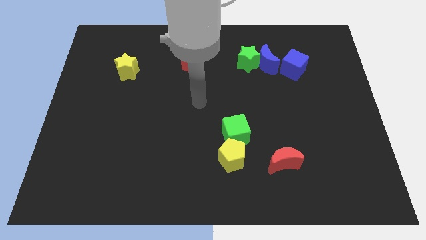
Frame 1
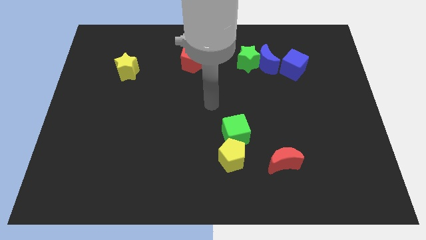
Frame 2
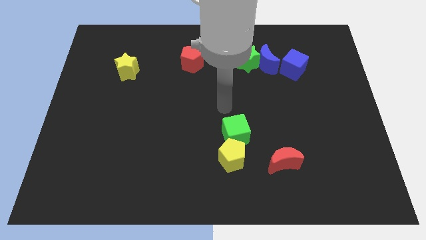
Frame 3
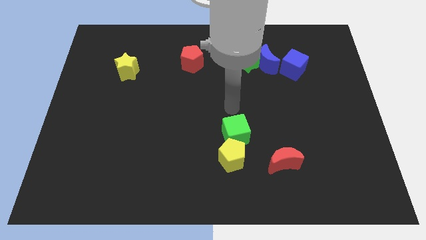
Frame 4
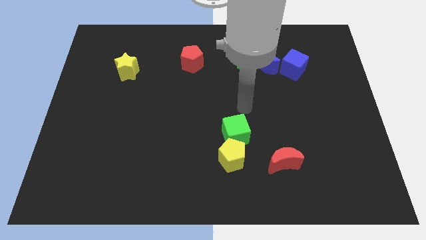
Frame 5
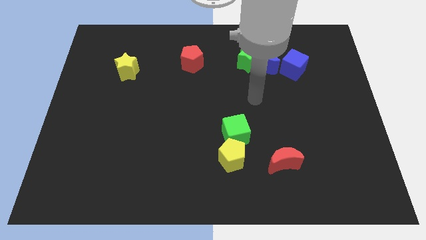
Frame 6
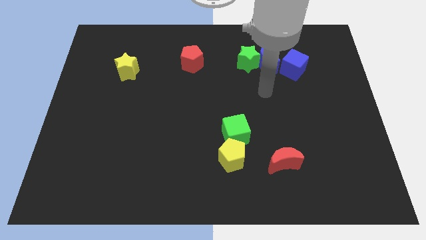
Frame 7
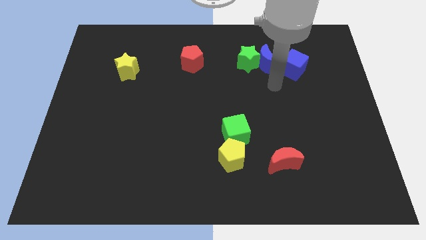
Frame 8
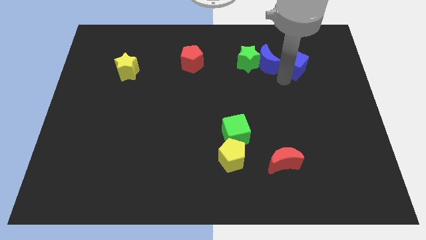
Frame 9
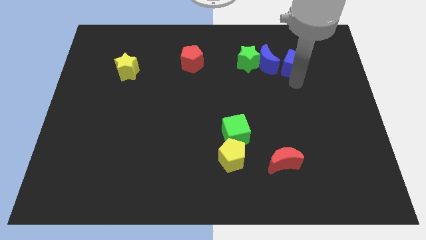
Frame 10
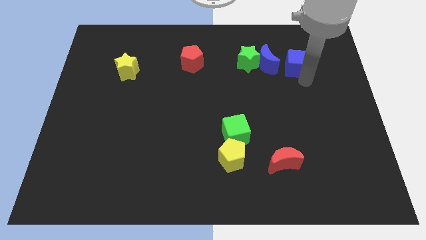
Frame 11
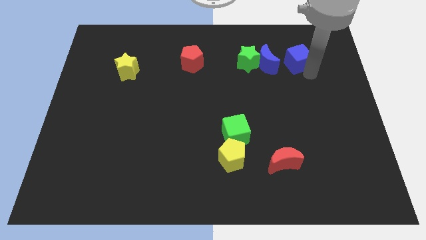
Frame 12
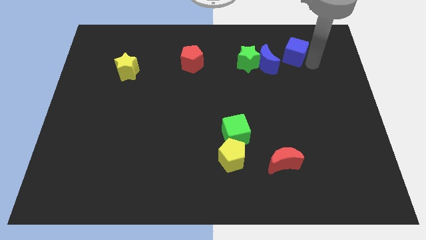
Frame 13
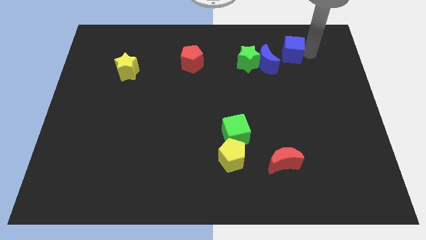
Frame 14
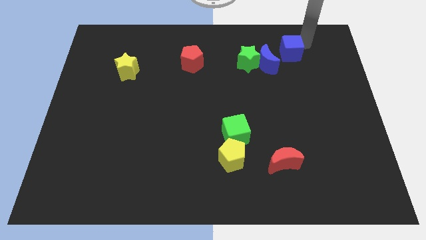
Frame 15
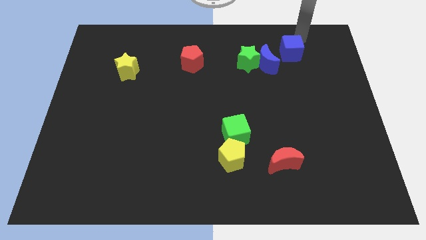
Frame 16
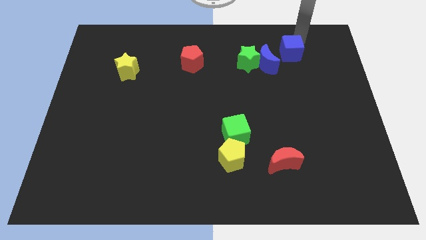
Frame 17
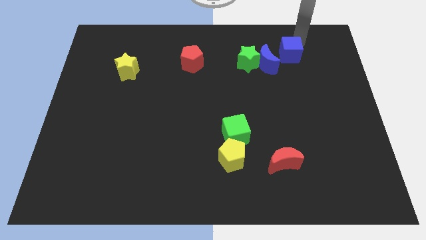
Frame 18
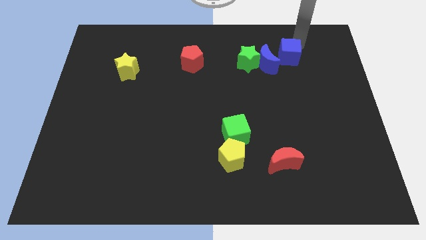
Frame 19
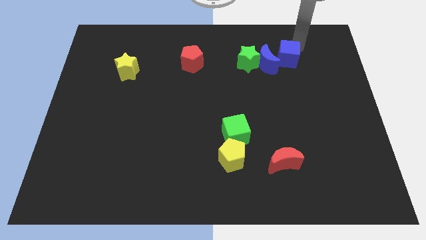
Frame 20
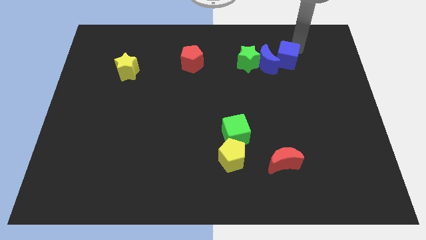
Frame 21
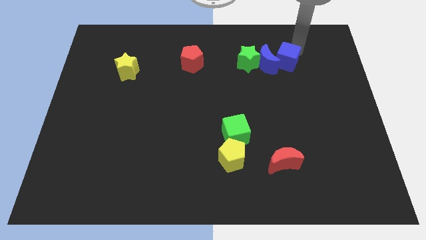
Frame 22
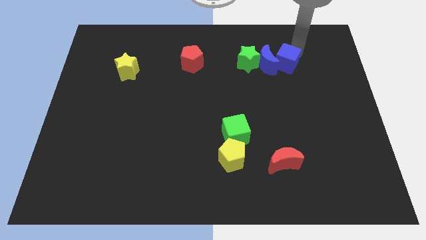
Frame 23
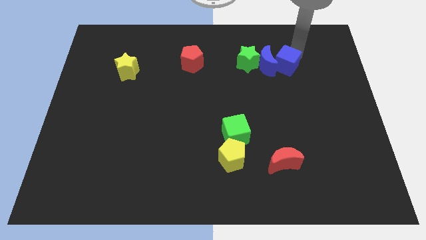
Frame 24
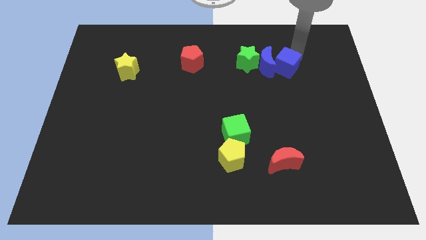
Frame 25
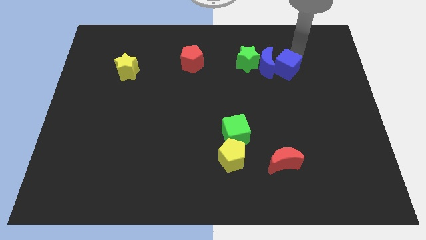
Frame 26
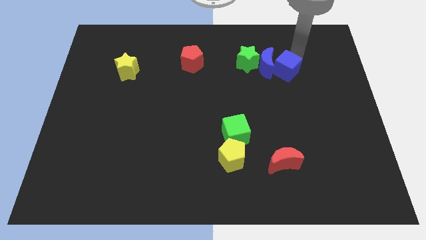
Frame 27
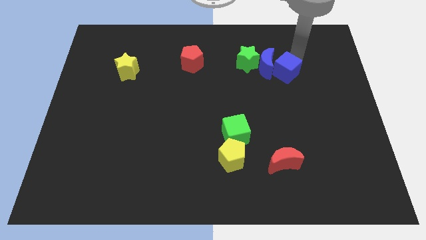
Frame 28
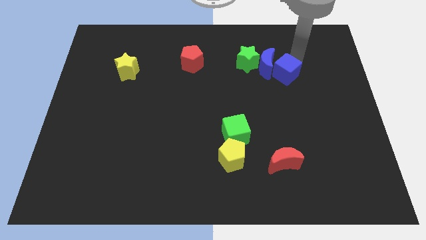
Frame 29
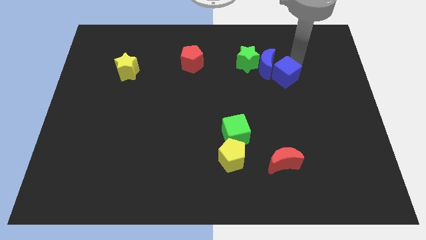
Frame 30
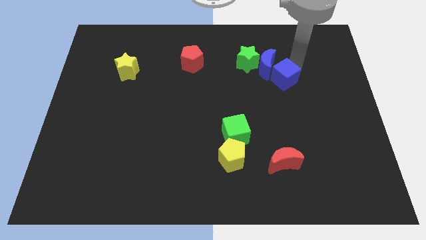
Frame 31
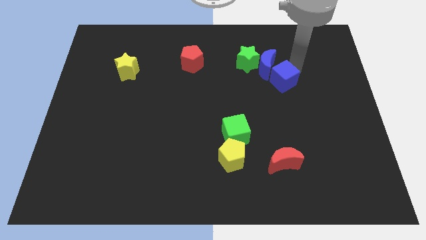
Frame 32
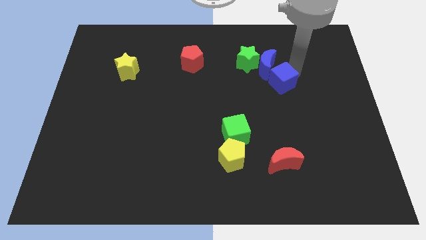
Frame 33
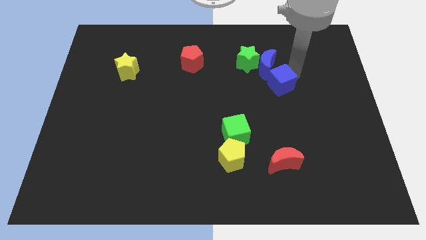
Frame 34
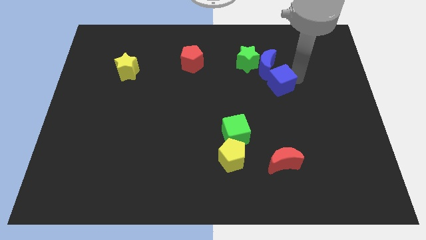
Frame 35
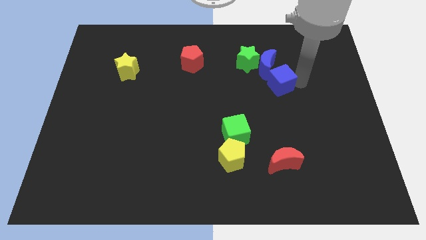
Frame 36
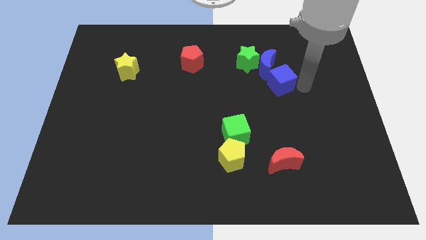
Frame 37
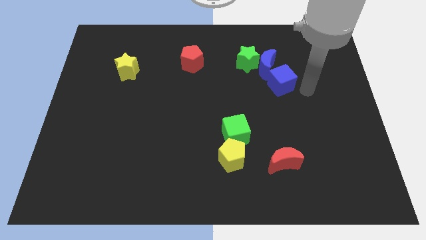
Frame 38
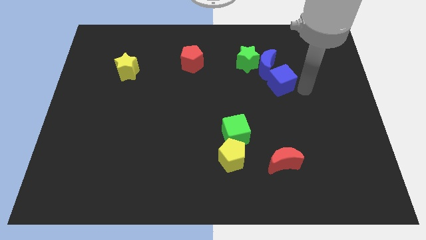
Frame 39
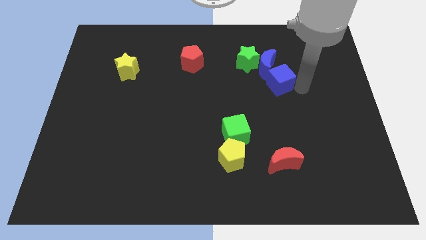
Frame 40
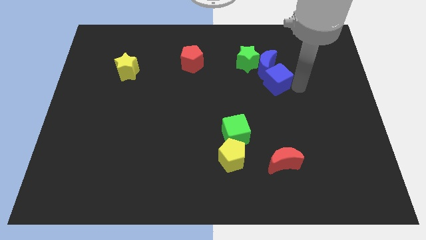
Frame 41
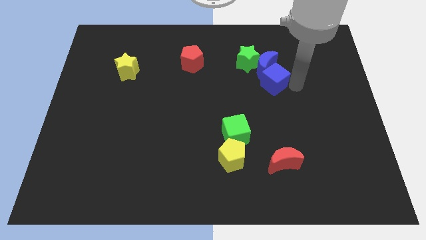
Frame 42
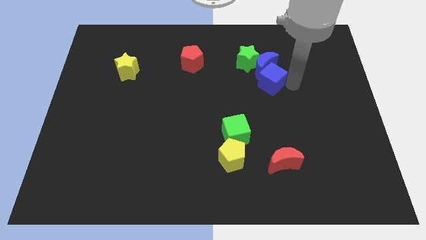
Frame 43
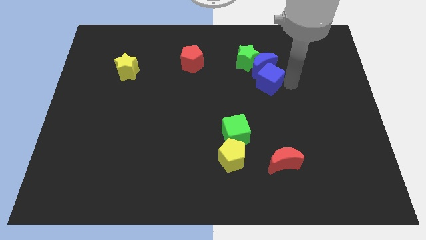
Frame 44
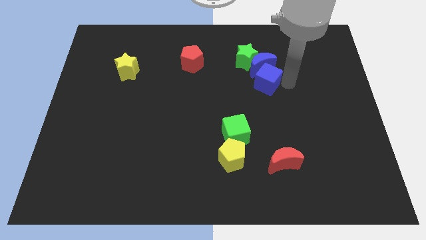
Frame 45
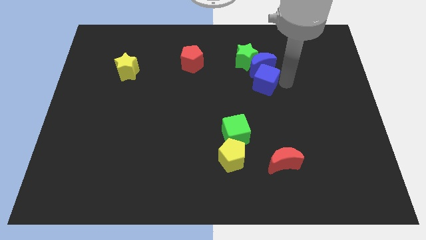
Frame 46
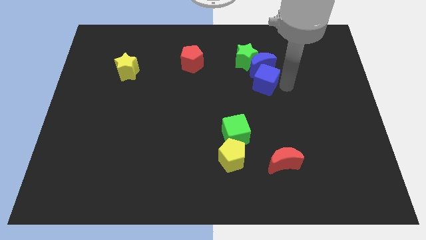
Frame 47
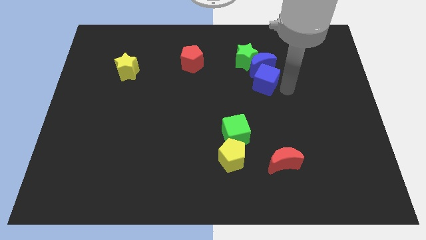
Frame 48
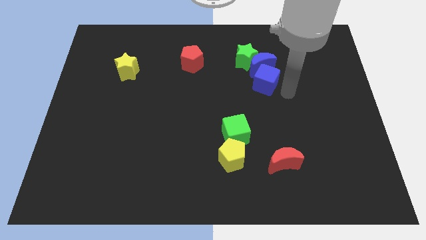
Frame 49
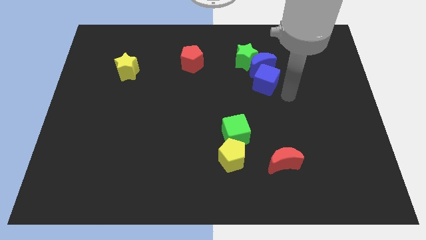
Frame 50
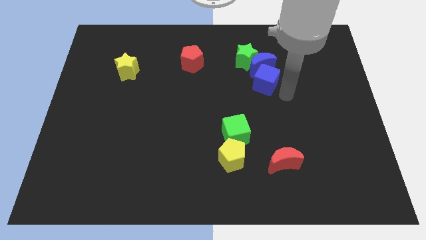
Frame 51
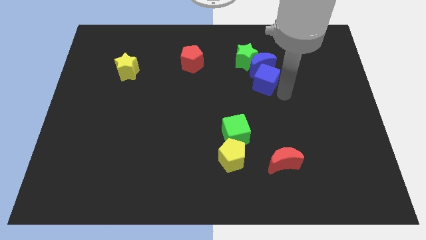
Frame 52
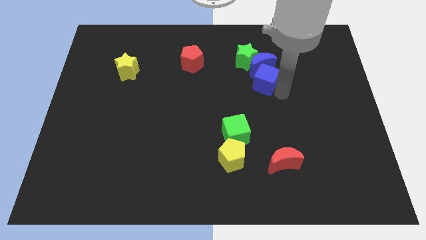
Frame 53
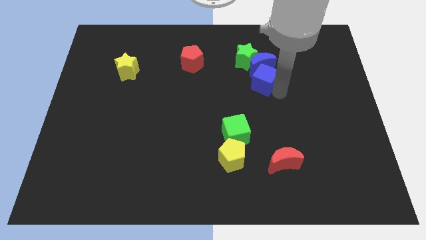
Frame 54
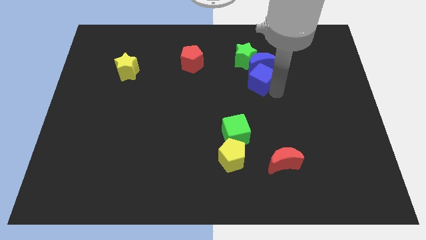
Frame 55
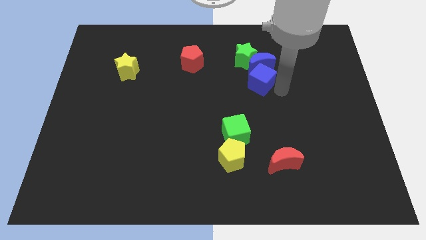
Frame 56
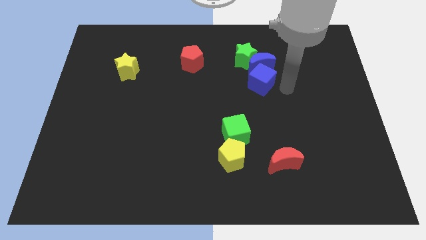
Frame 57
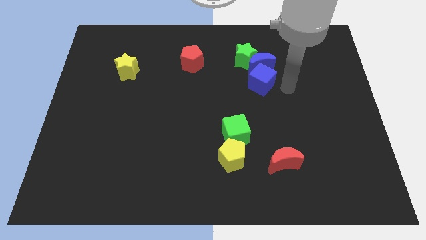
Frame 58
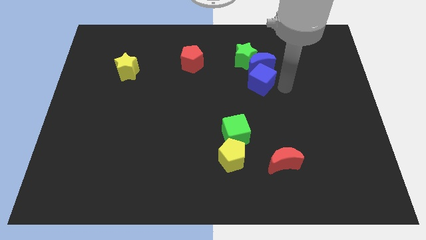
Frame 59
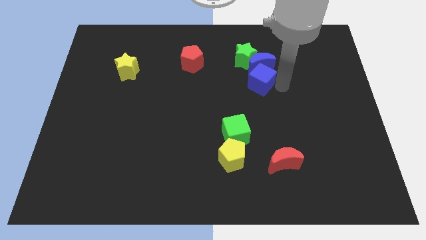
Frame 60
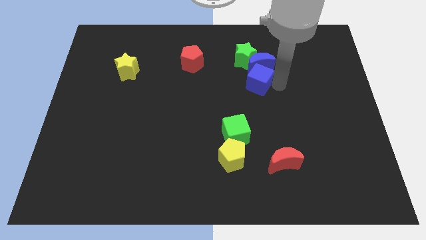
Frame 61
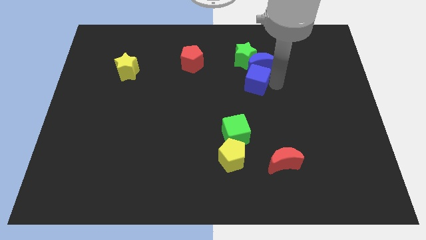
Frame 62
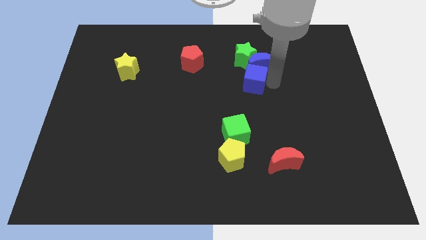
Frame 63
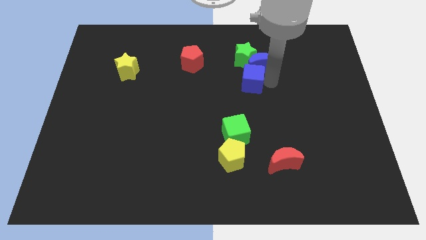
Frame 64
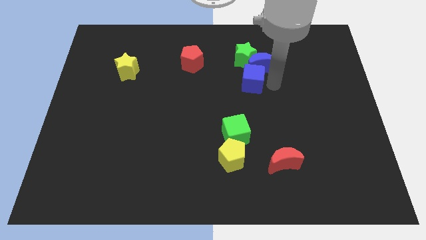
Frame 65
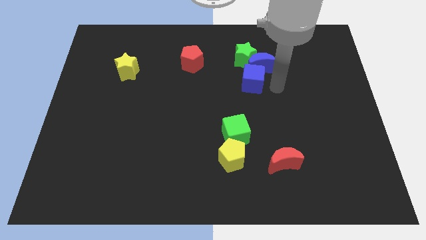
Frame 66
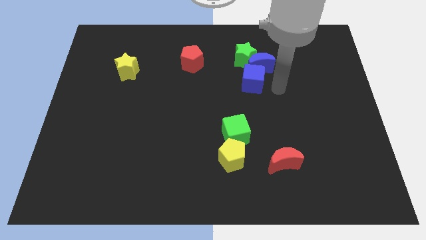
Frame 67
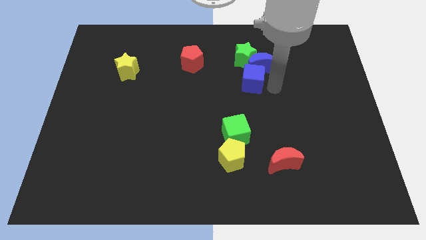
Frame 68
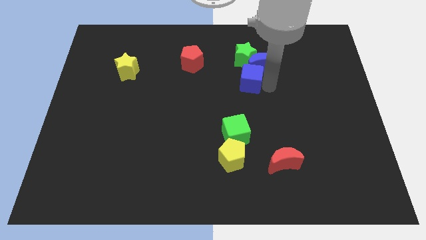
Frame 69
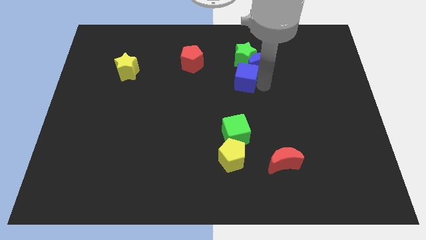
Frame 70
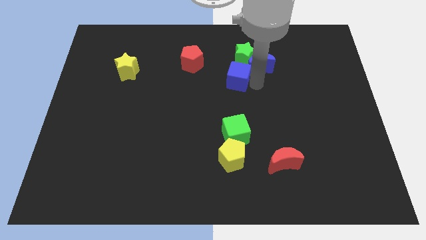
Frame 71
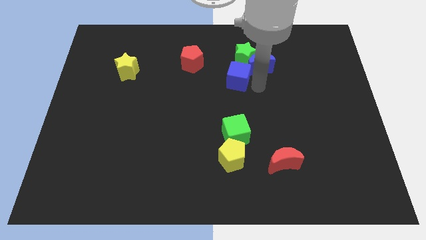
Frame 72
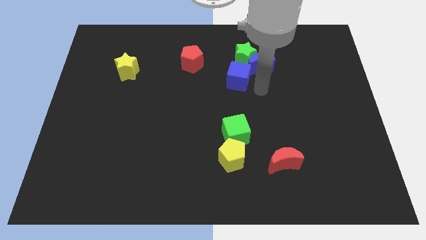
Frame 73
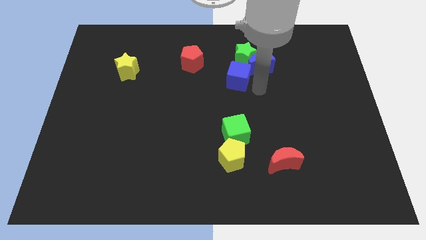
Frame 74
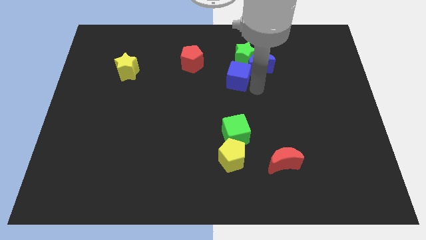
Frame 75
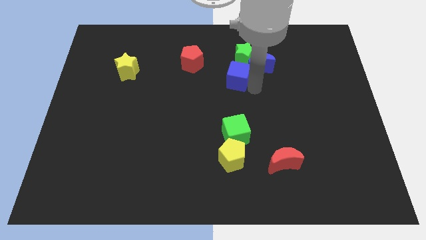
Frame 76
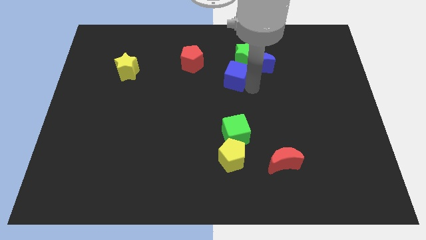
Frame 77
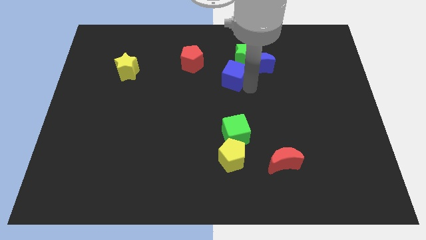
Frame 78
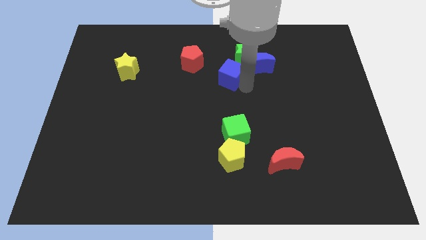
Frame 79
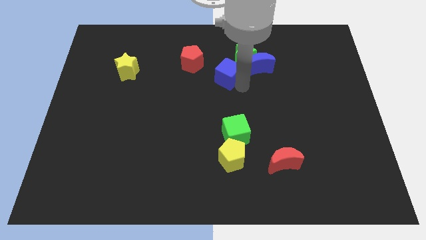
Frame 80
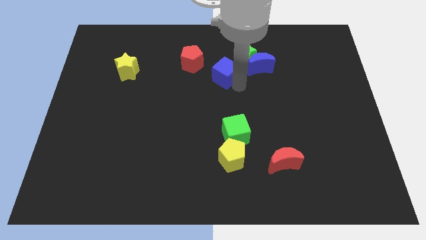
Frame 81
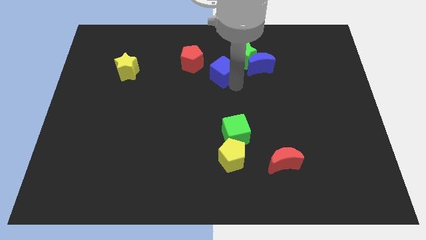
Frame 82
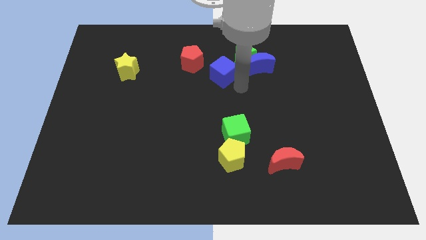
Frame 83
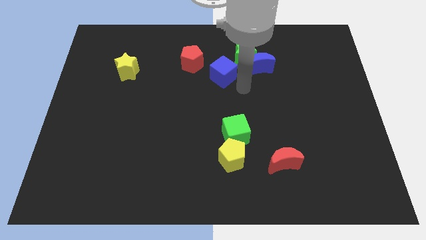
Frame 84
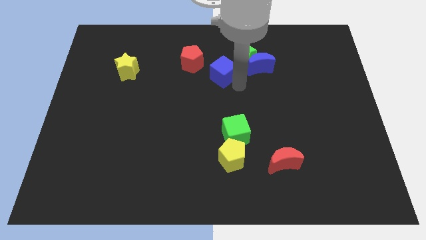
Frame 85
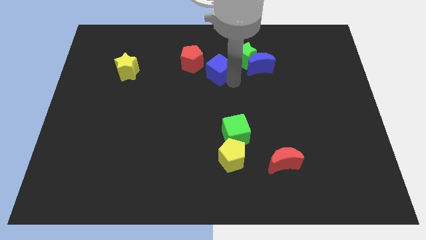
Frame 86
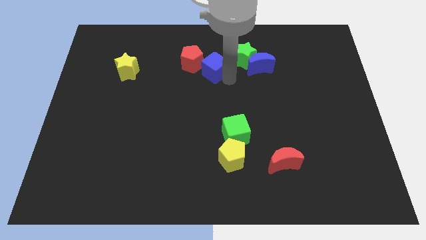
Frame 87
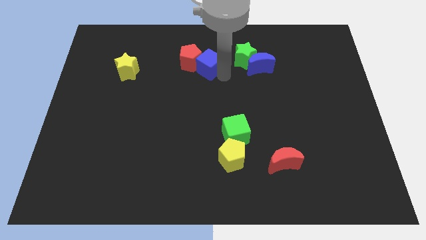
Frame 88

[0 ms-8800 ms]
slide the blue cube towards the red pentagon
